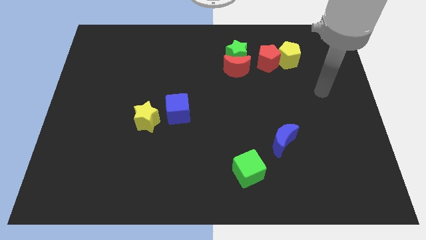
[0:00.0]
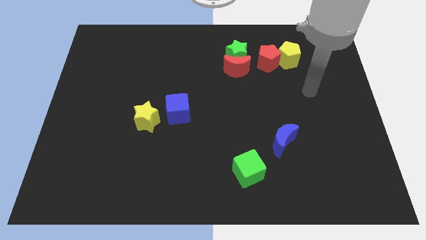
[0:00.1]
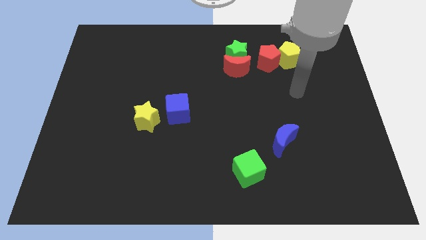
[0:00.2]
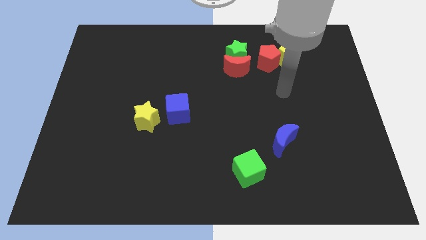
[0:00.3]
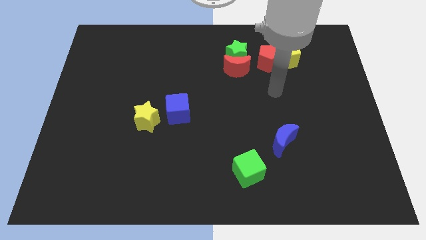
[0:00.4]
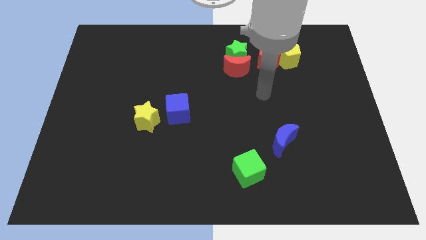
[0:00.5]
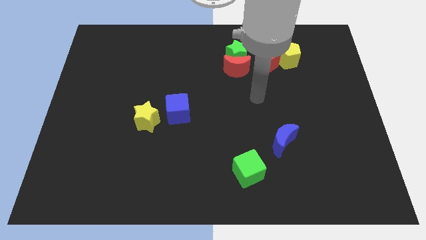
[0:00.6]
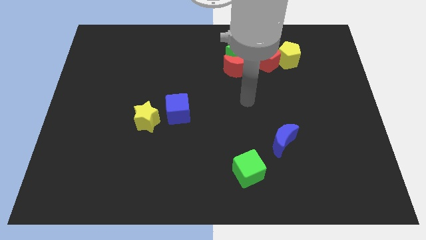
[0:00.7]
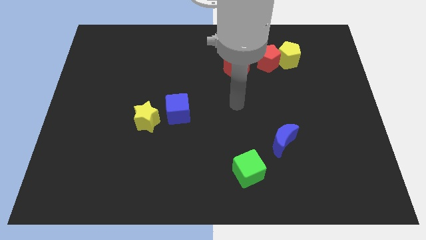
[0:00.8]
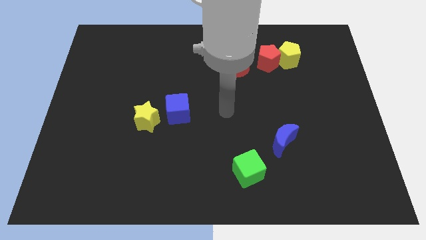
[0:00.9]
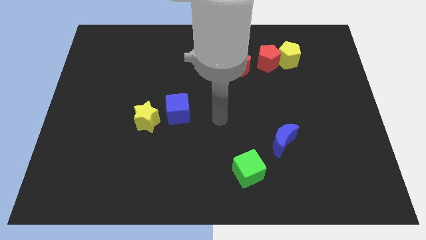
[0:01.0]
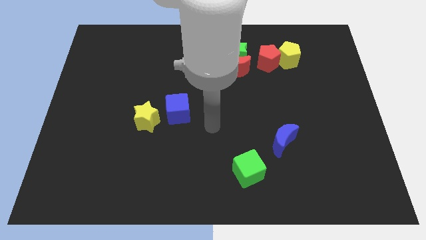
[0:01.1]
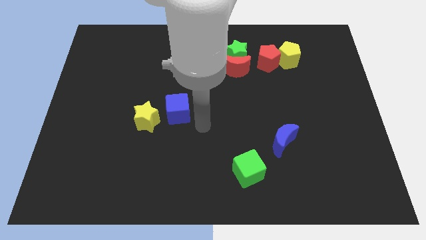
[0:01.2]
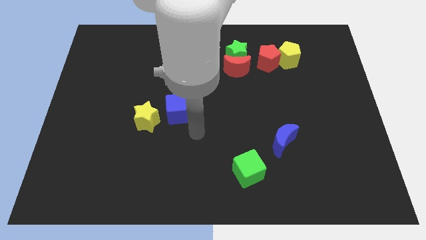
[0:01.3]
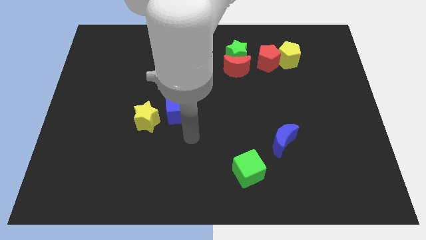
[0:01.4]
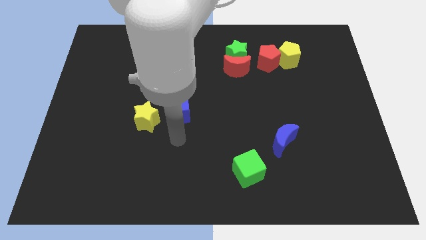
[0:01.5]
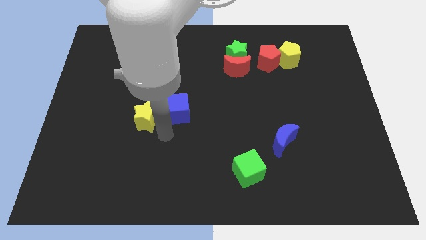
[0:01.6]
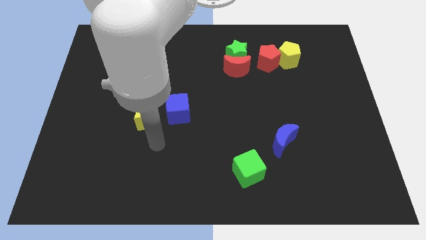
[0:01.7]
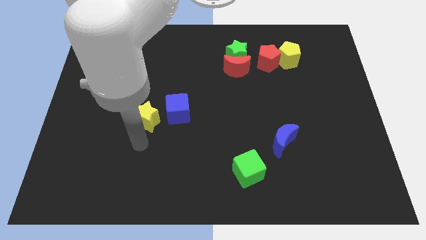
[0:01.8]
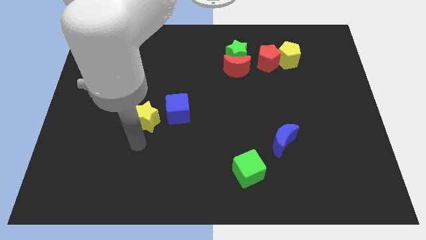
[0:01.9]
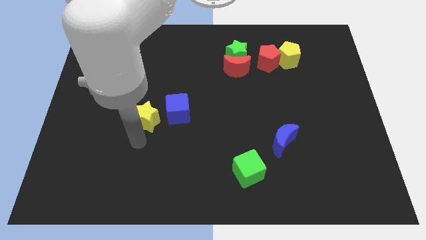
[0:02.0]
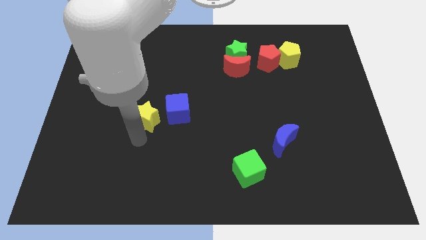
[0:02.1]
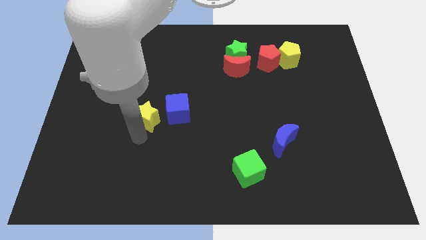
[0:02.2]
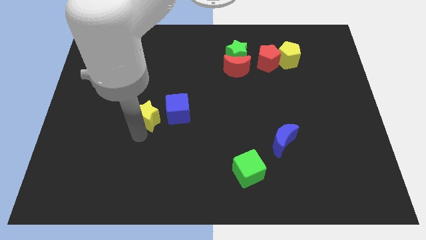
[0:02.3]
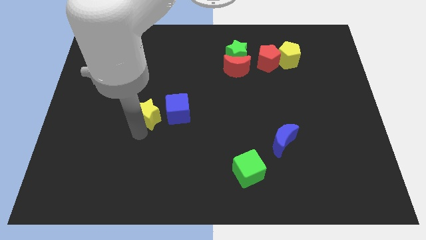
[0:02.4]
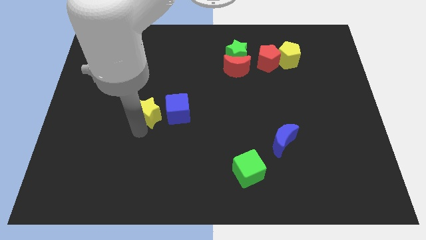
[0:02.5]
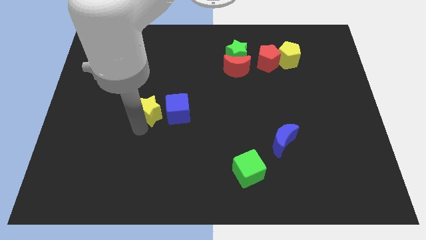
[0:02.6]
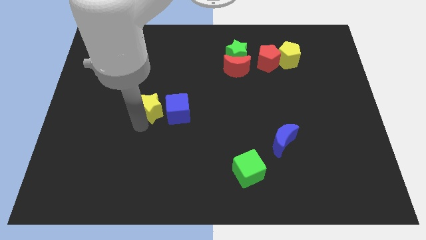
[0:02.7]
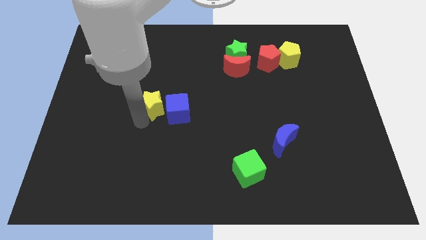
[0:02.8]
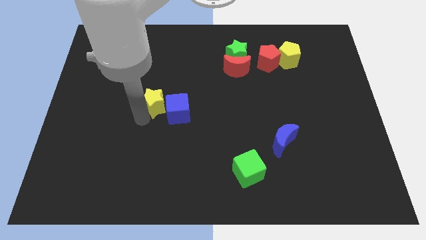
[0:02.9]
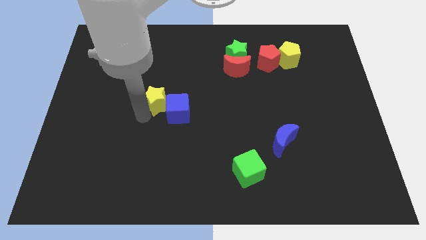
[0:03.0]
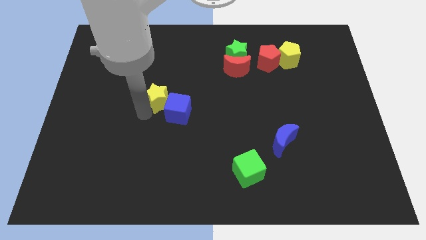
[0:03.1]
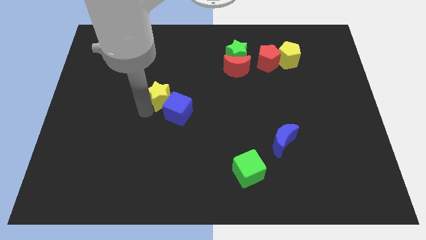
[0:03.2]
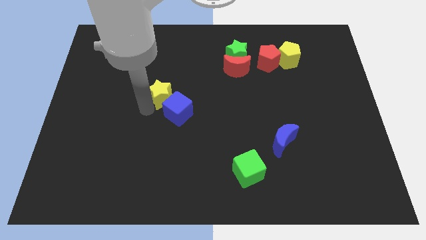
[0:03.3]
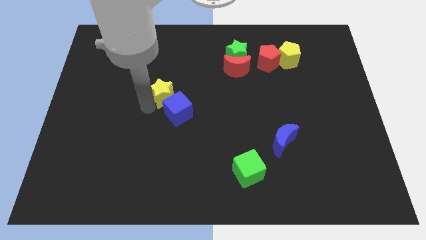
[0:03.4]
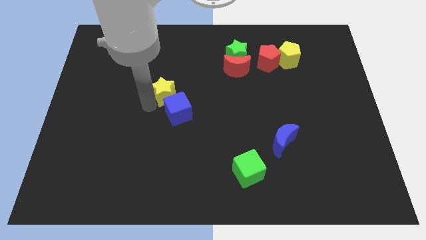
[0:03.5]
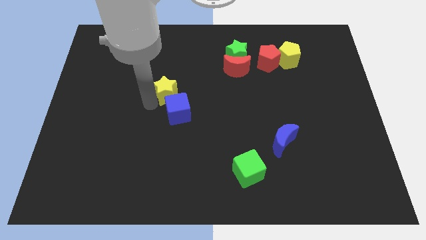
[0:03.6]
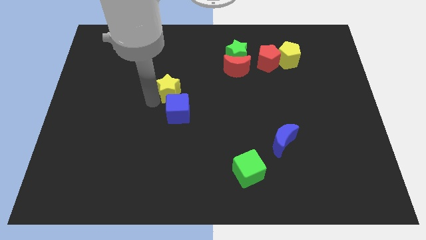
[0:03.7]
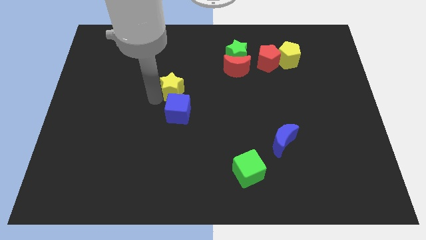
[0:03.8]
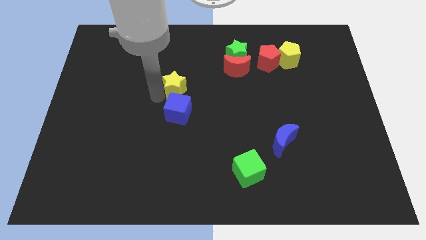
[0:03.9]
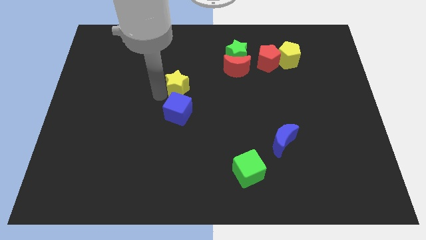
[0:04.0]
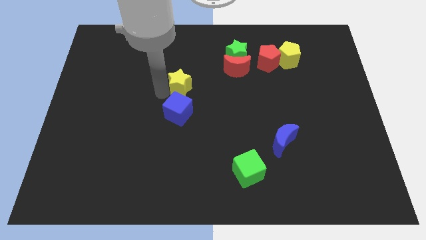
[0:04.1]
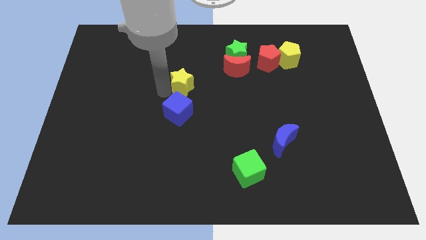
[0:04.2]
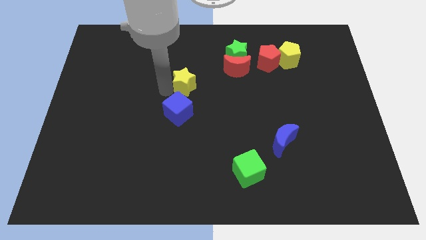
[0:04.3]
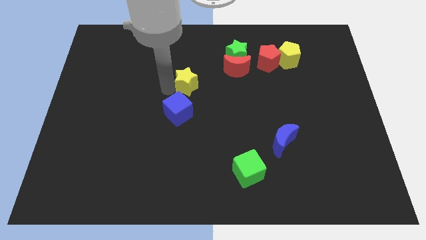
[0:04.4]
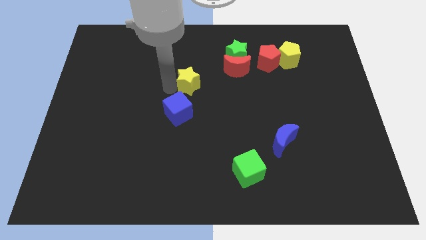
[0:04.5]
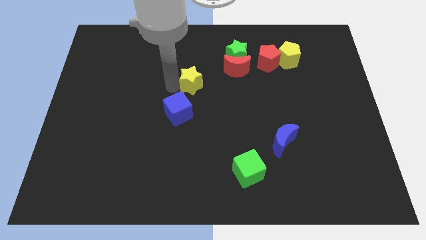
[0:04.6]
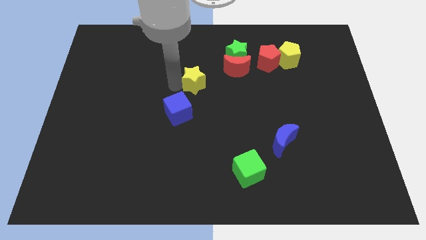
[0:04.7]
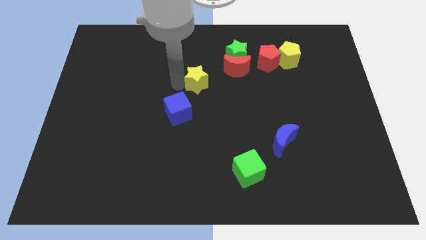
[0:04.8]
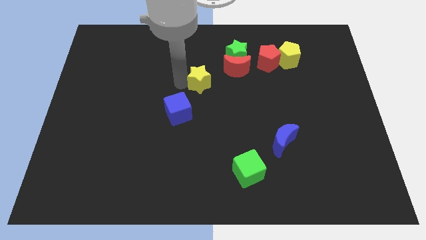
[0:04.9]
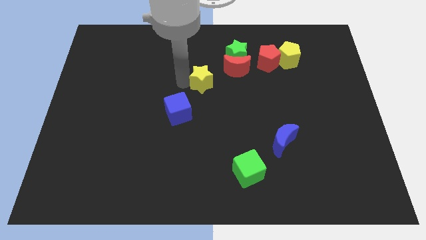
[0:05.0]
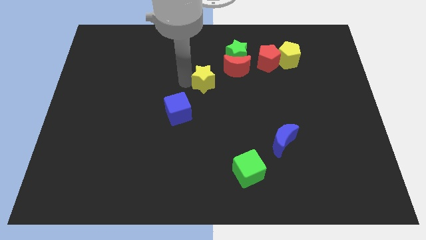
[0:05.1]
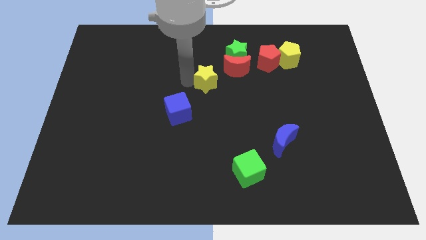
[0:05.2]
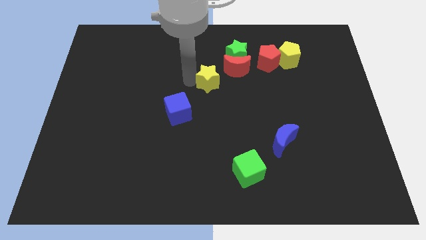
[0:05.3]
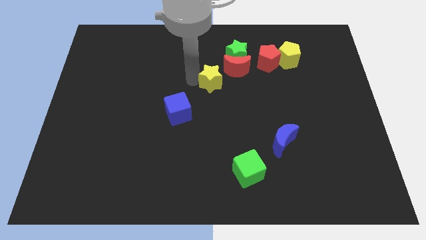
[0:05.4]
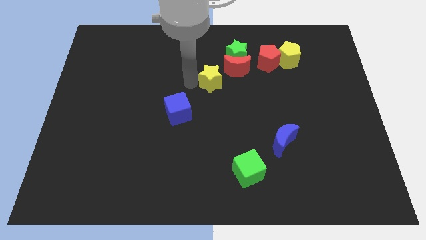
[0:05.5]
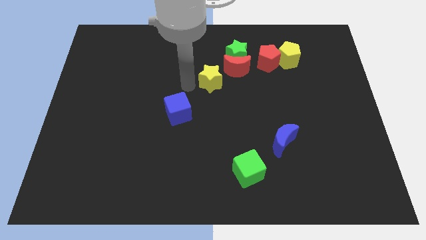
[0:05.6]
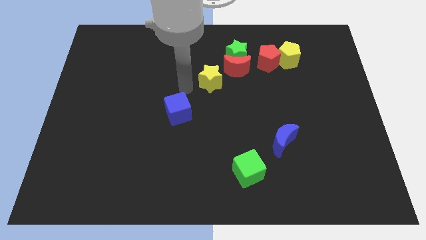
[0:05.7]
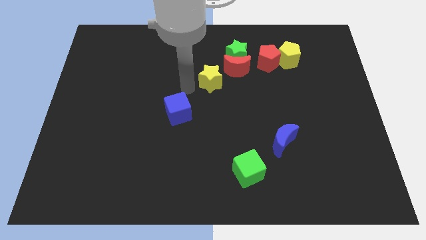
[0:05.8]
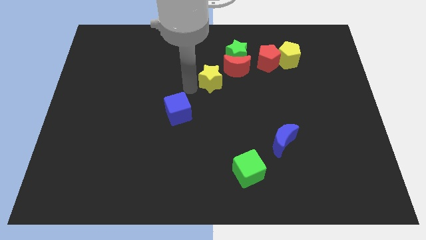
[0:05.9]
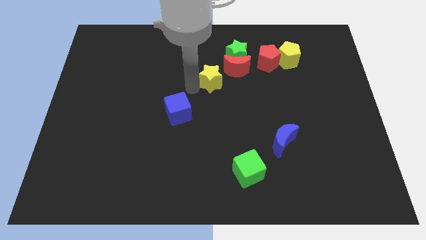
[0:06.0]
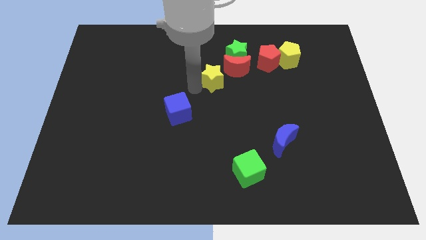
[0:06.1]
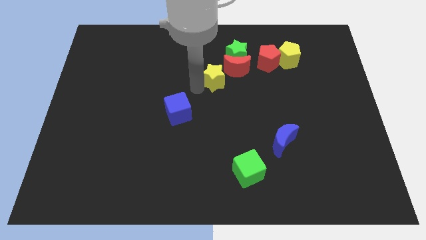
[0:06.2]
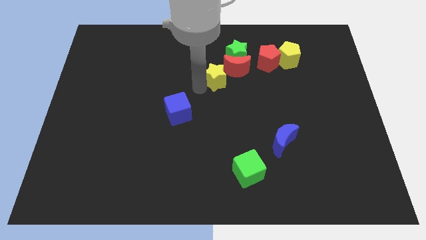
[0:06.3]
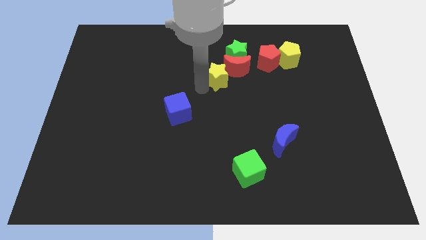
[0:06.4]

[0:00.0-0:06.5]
push the yellow star to the red moon

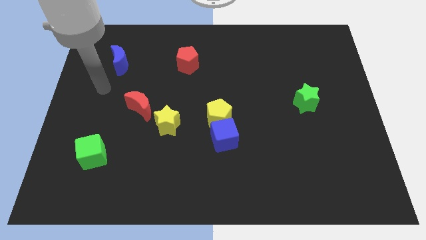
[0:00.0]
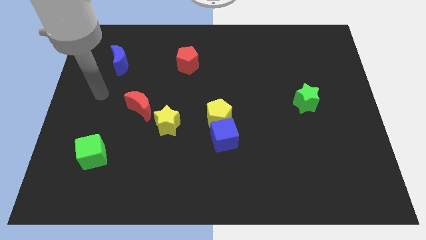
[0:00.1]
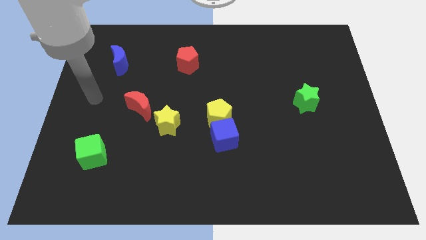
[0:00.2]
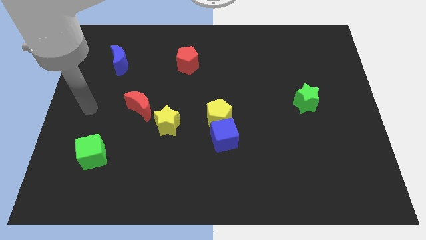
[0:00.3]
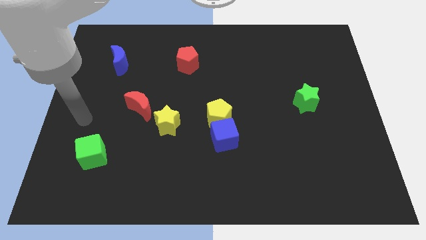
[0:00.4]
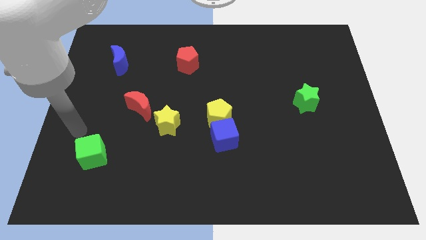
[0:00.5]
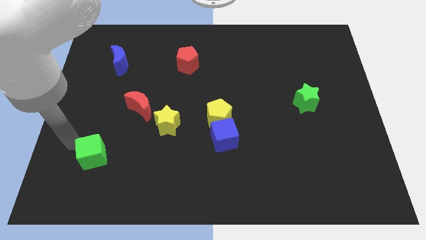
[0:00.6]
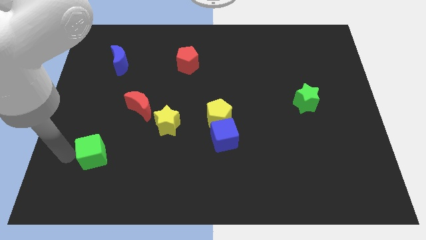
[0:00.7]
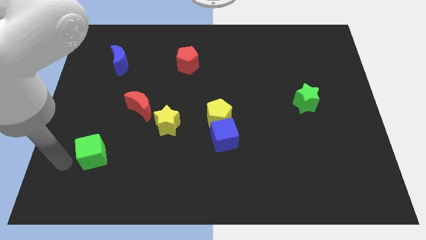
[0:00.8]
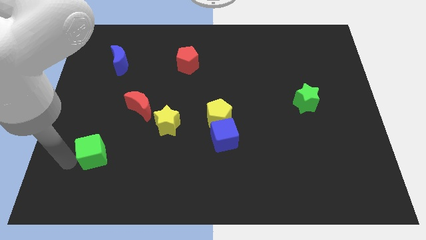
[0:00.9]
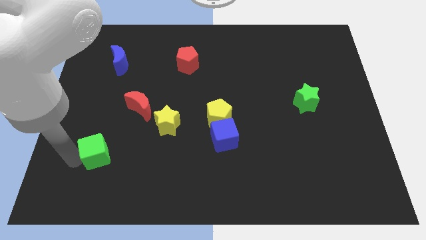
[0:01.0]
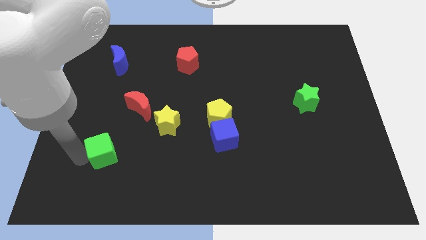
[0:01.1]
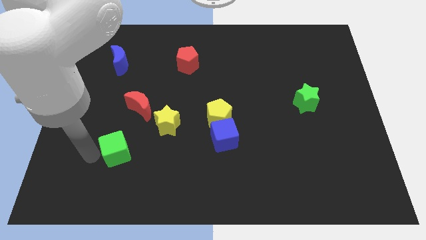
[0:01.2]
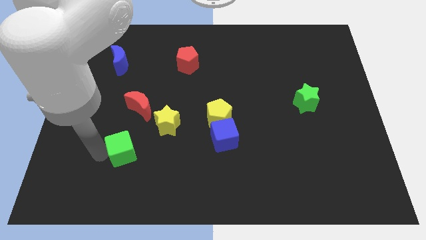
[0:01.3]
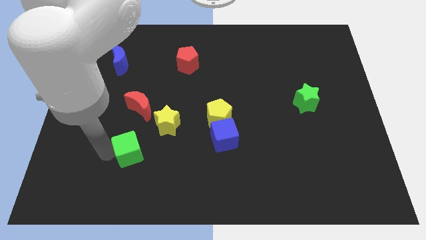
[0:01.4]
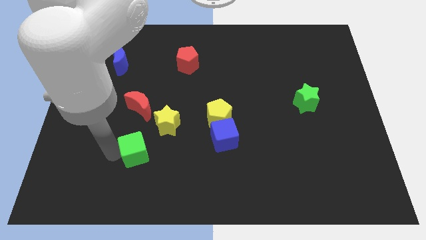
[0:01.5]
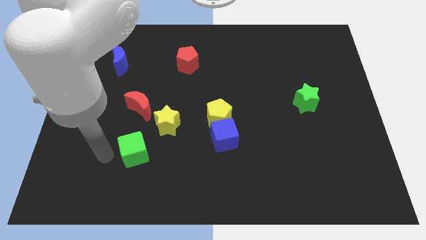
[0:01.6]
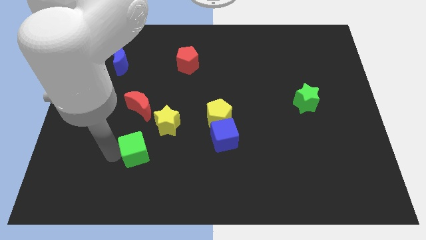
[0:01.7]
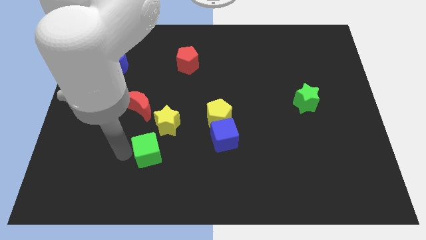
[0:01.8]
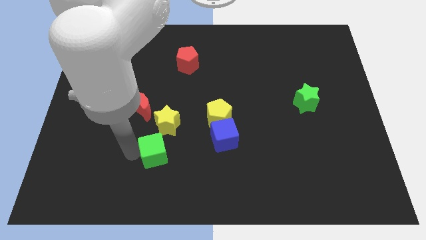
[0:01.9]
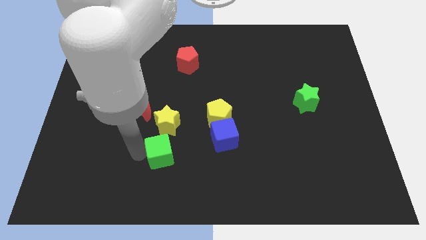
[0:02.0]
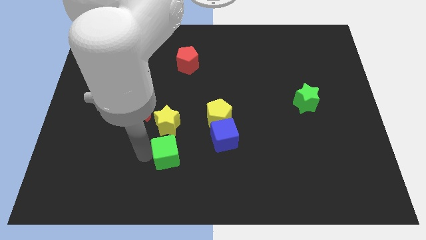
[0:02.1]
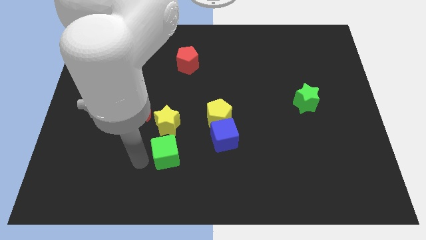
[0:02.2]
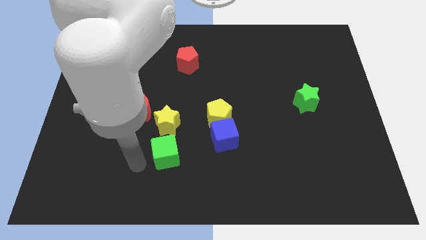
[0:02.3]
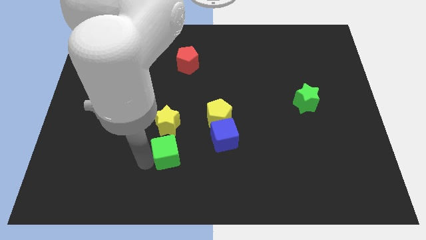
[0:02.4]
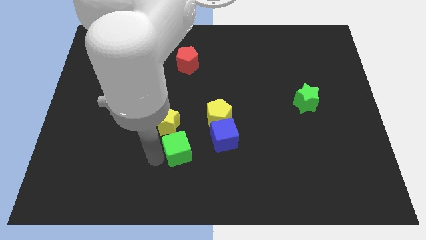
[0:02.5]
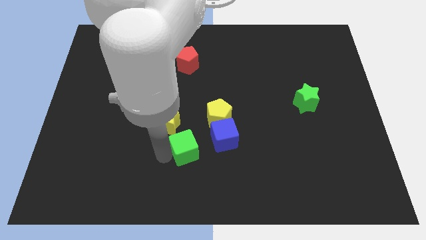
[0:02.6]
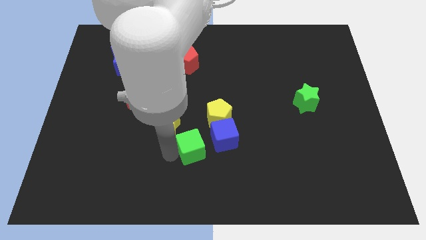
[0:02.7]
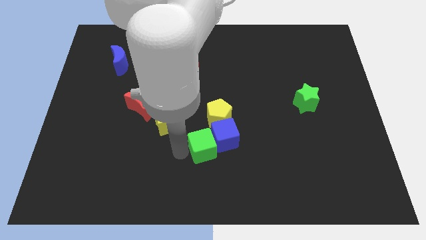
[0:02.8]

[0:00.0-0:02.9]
push the green cube next to the blue cube
